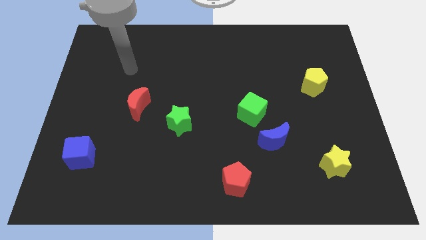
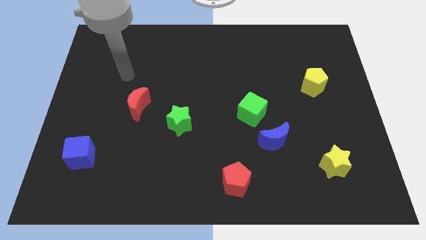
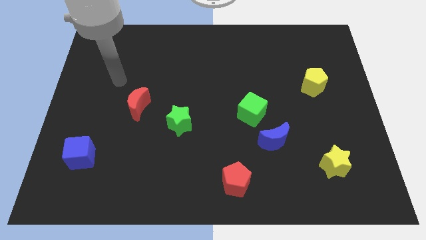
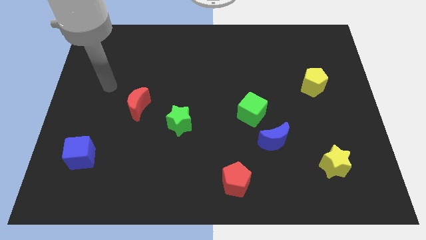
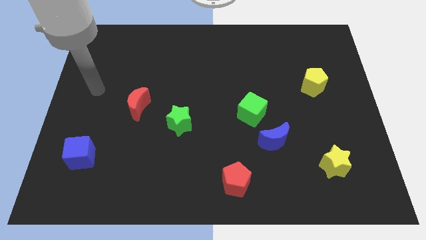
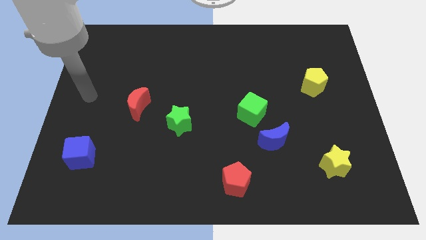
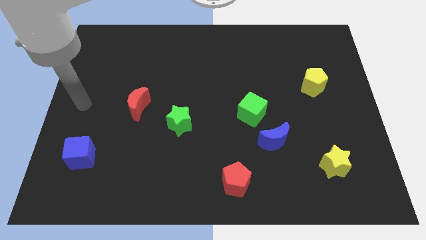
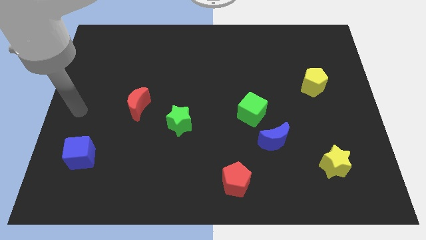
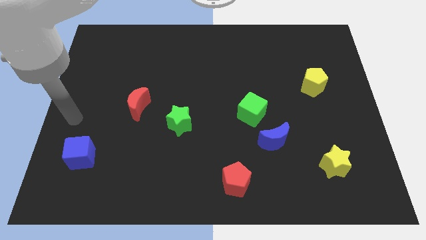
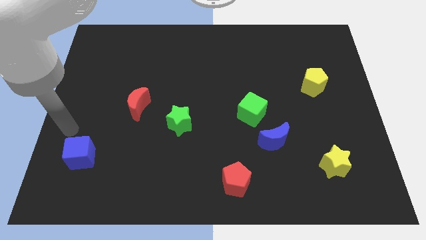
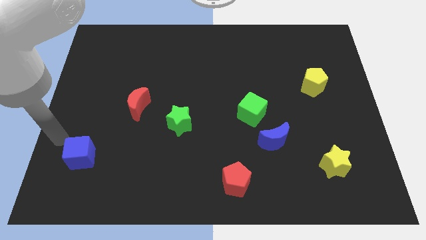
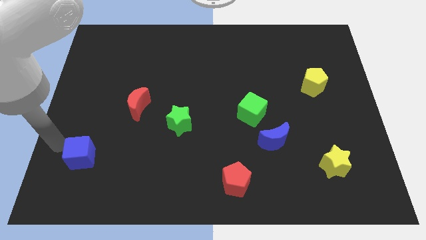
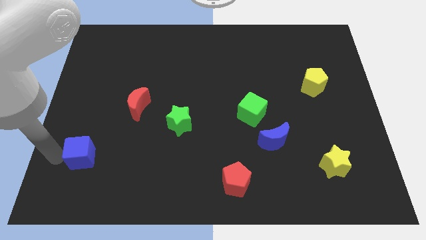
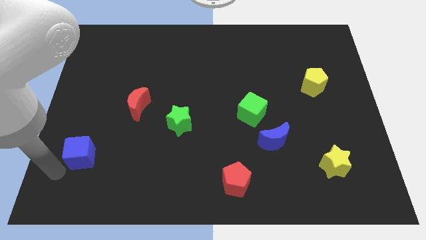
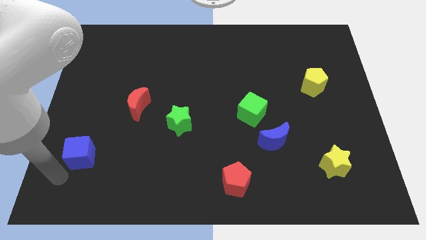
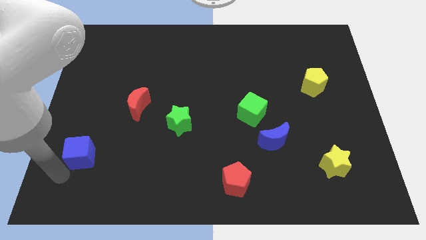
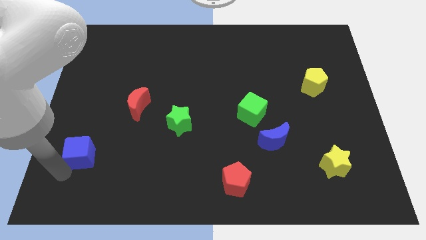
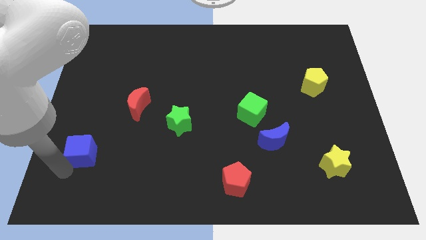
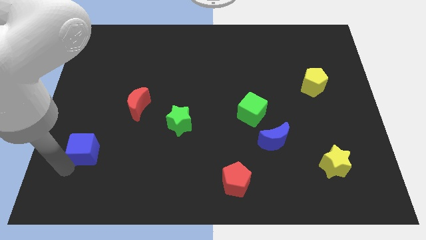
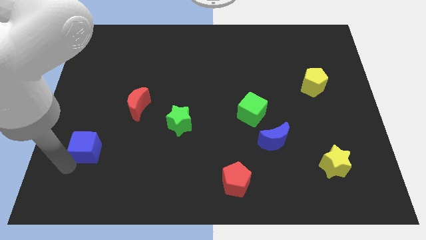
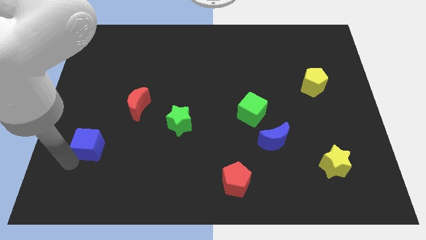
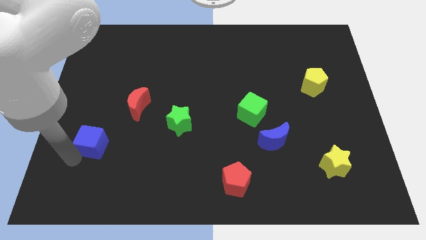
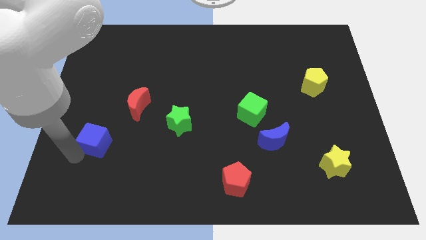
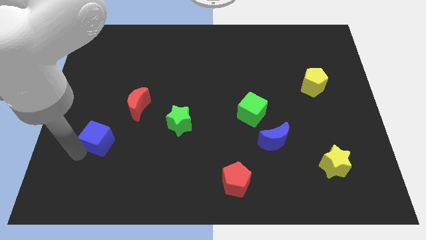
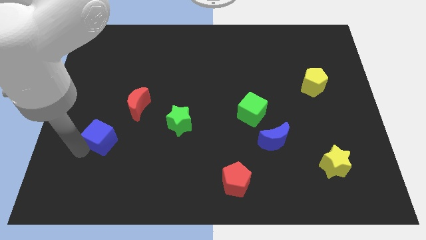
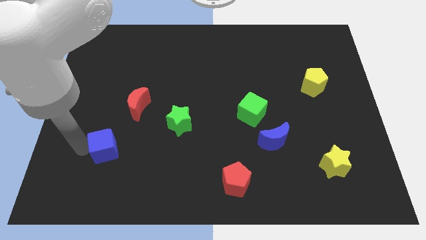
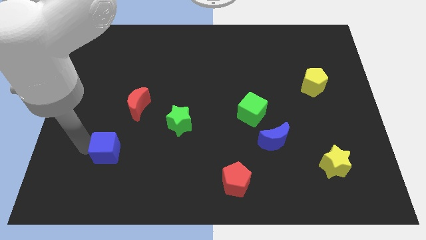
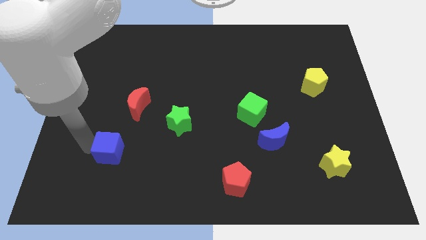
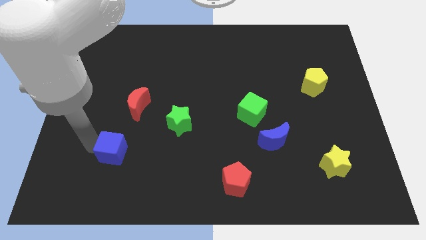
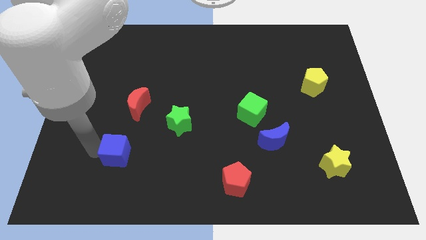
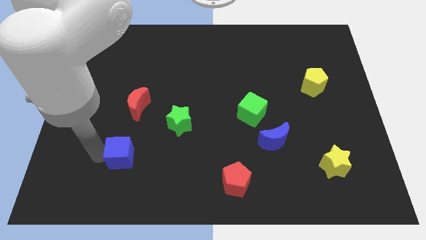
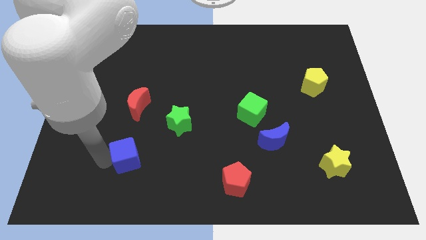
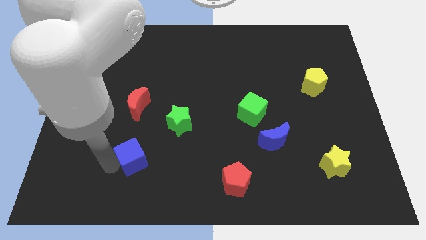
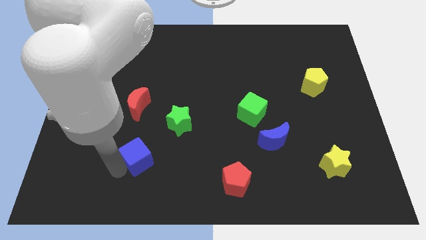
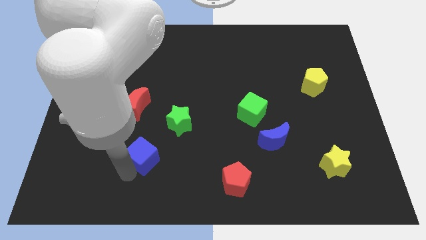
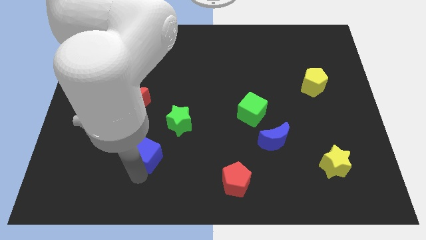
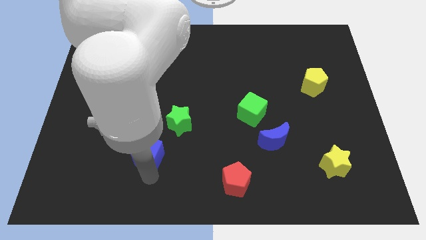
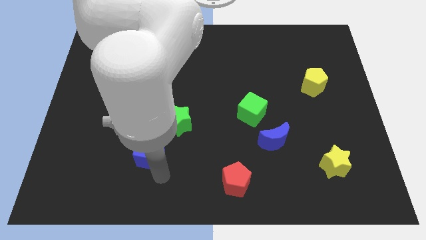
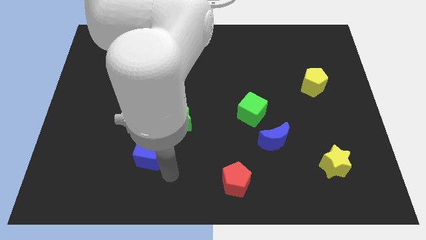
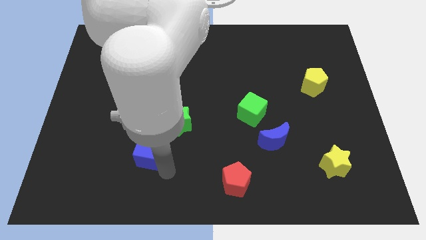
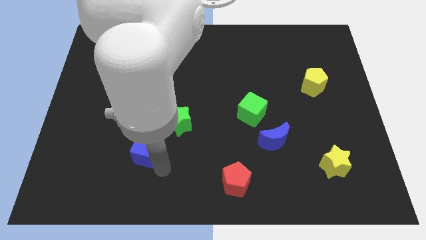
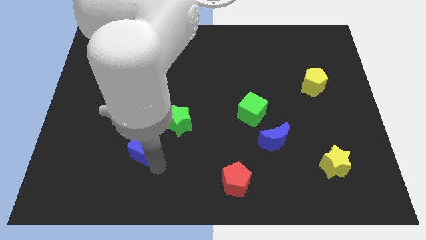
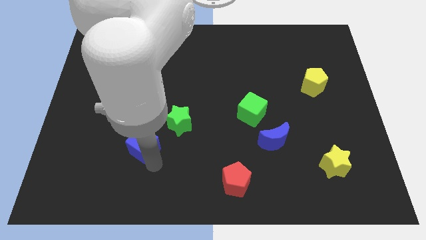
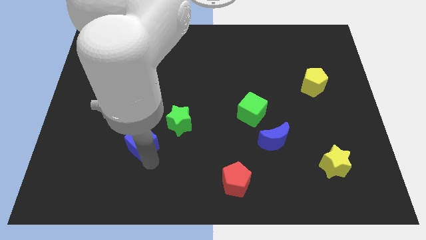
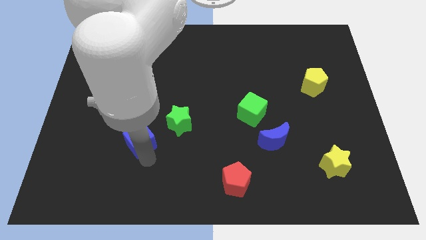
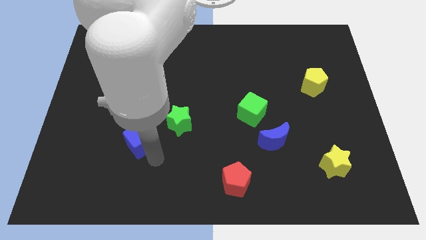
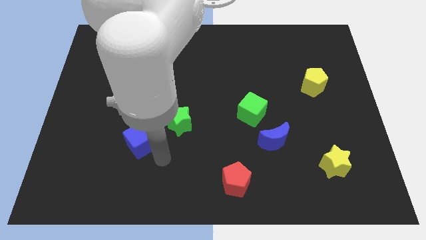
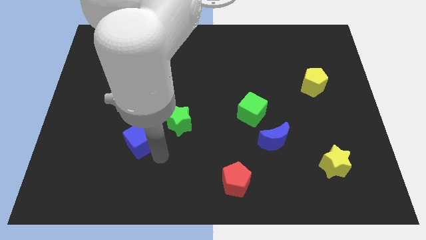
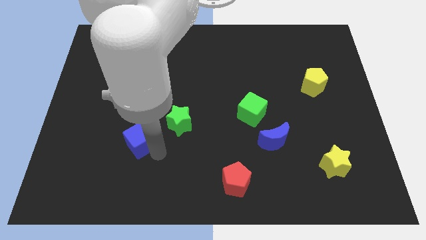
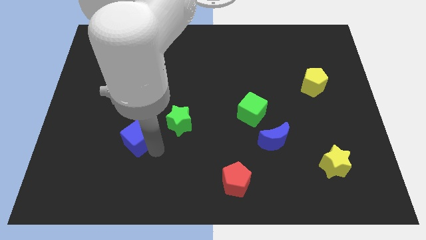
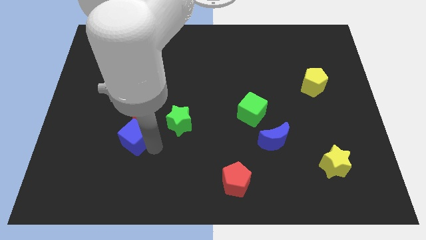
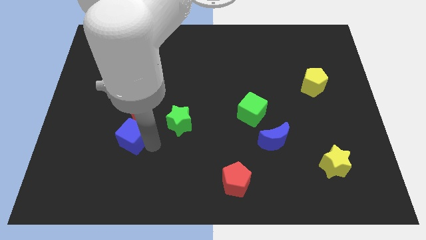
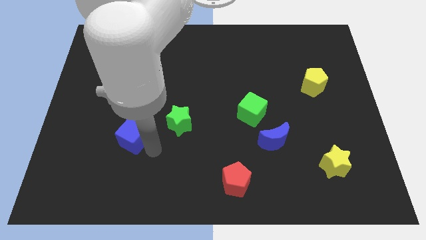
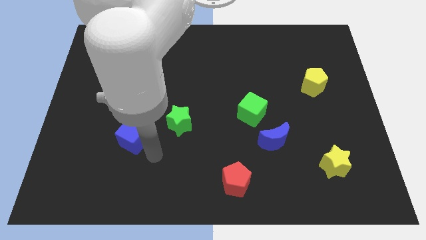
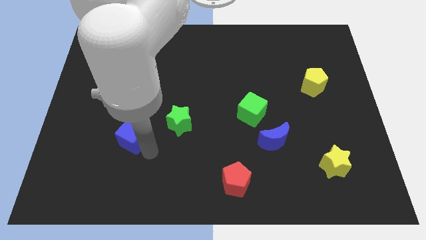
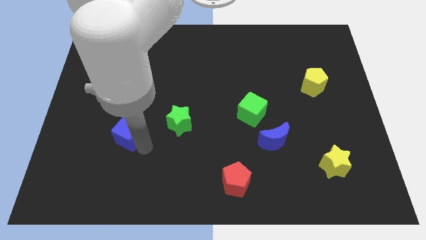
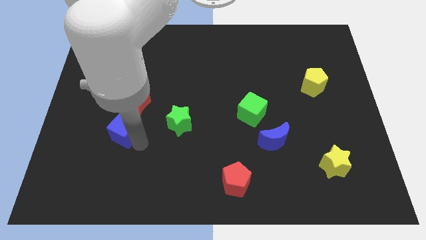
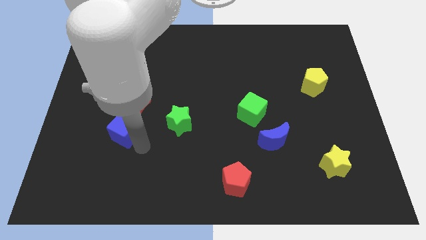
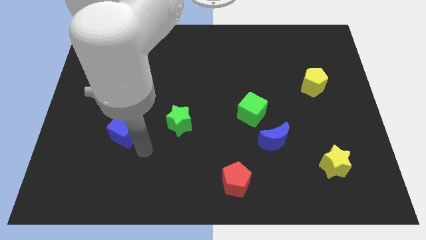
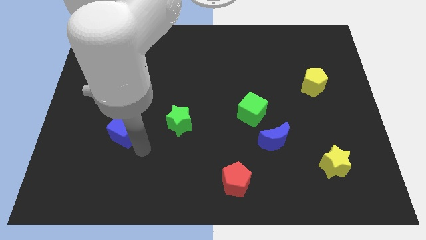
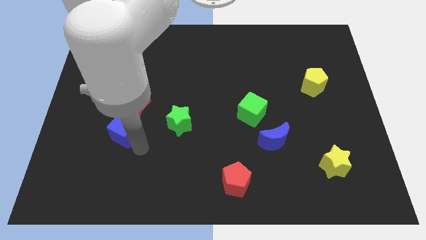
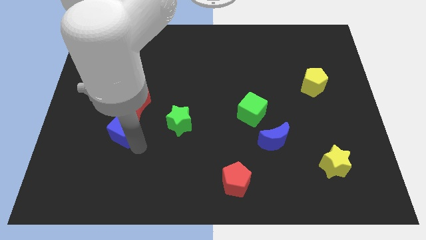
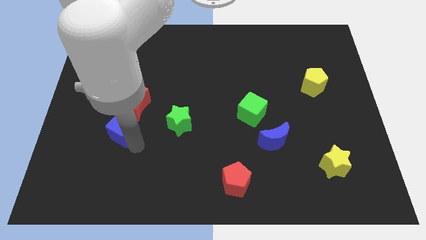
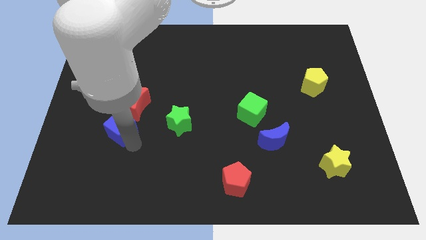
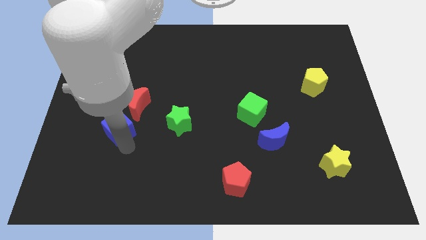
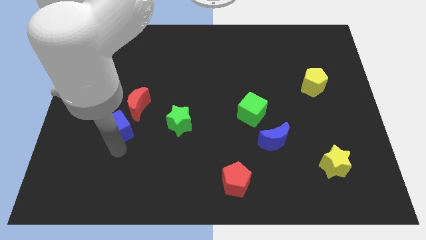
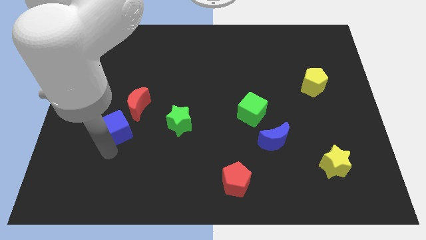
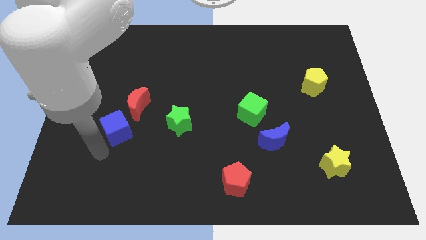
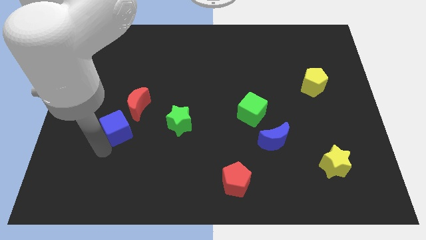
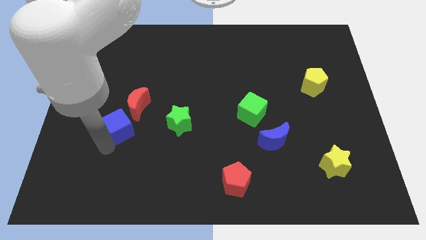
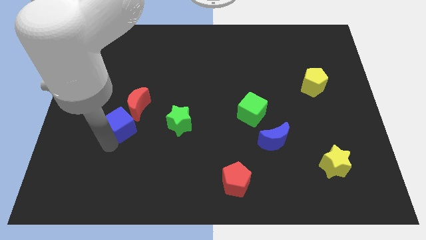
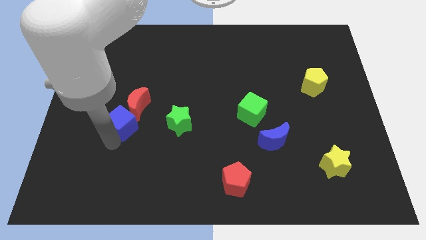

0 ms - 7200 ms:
slide the blue cube next to the red moon
